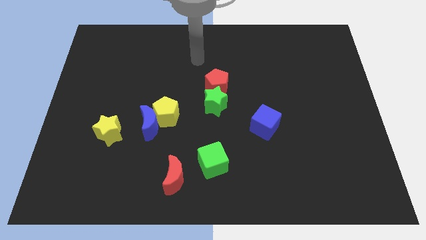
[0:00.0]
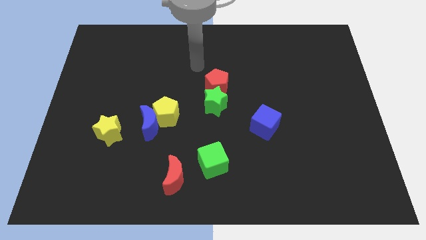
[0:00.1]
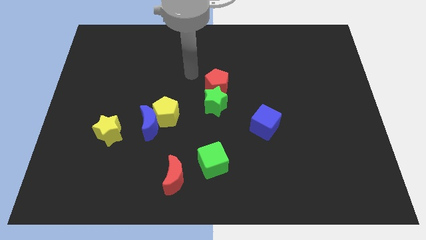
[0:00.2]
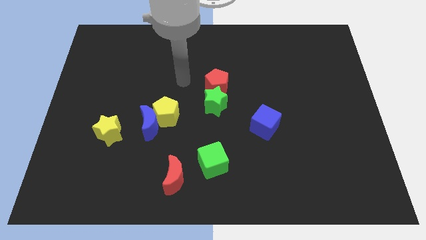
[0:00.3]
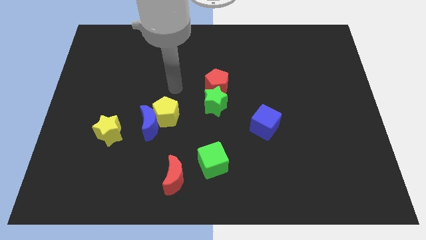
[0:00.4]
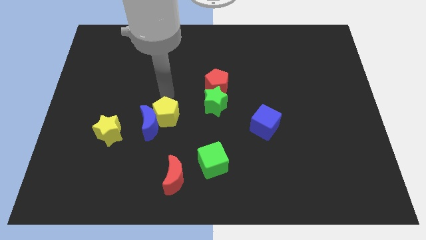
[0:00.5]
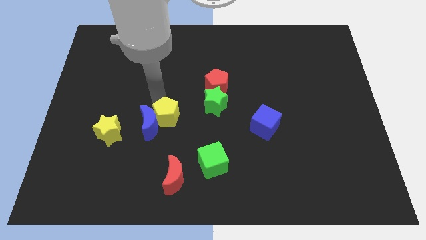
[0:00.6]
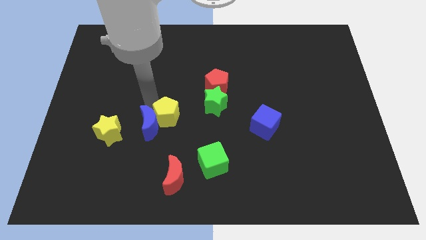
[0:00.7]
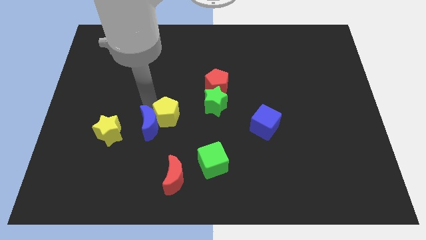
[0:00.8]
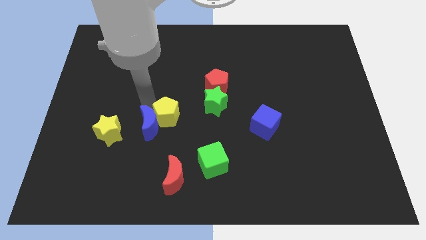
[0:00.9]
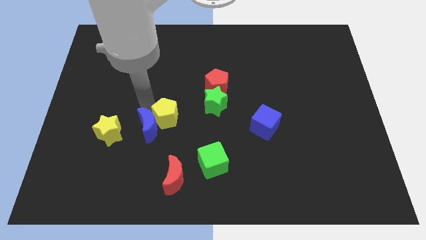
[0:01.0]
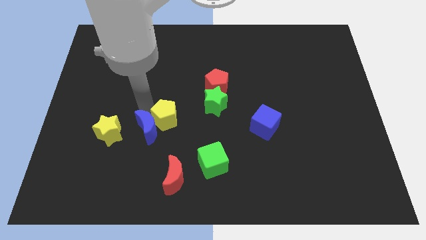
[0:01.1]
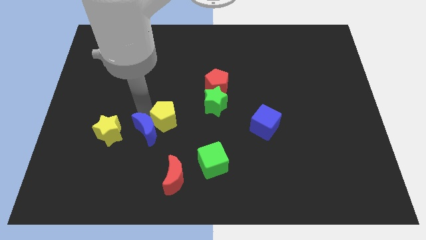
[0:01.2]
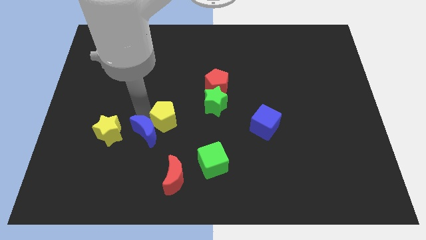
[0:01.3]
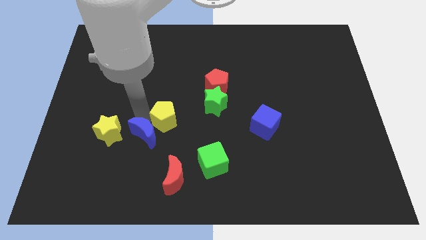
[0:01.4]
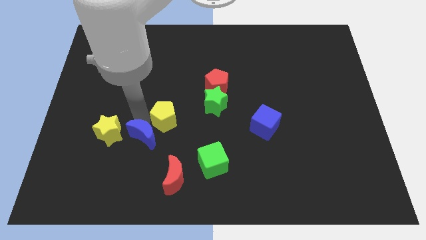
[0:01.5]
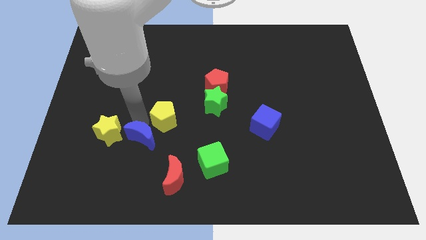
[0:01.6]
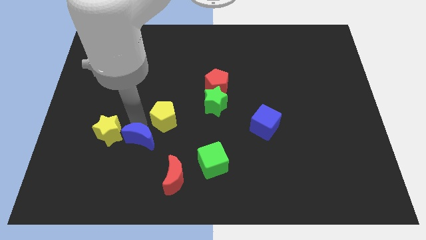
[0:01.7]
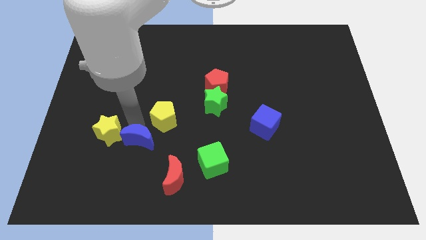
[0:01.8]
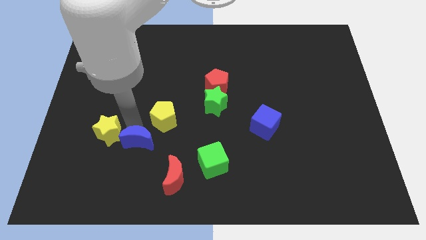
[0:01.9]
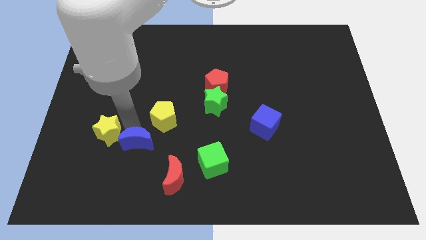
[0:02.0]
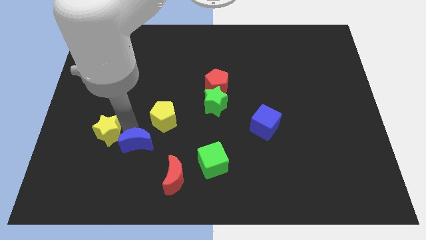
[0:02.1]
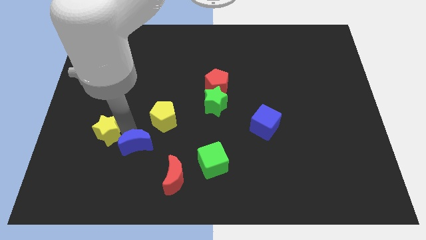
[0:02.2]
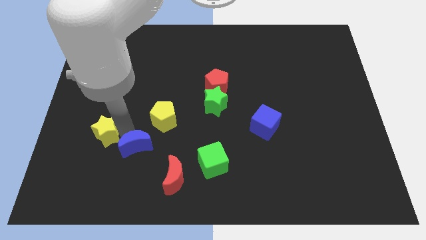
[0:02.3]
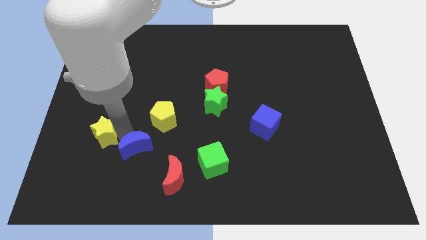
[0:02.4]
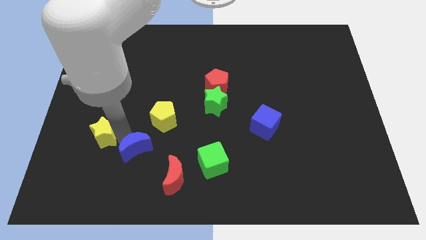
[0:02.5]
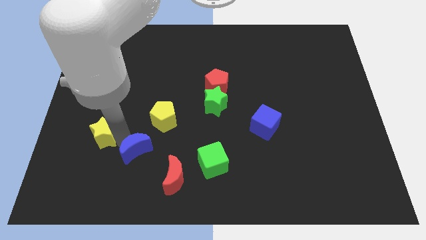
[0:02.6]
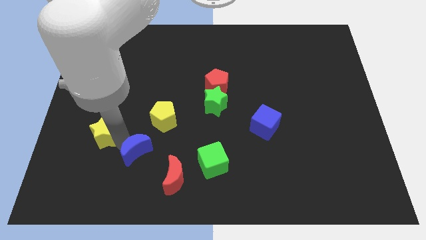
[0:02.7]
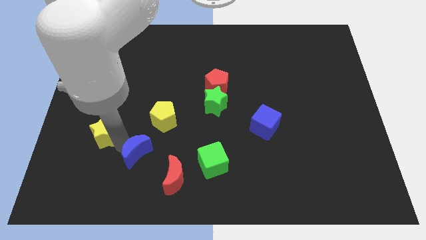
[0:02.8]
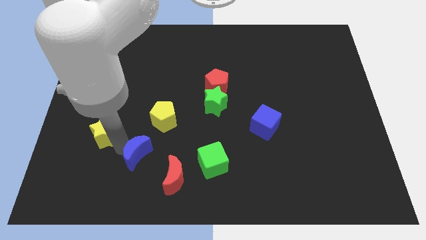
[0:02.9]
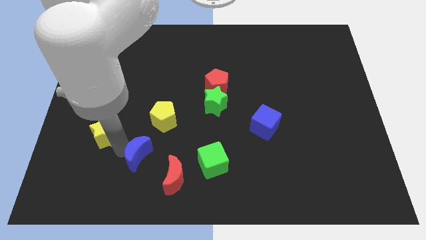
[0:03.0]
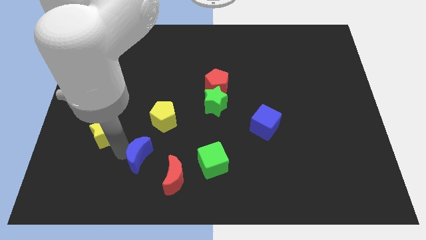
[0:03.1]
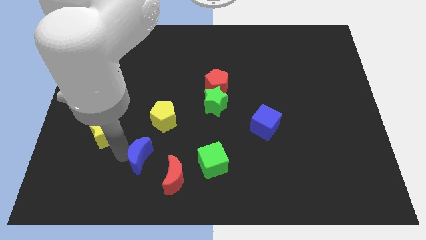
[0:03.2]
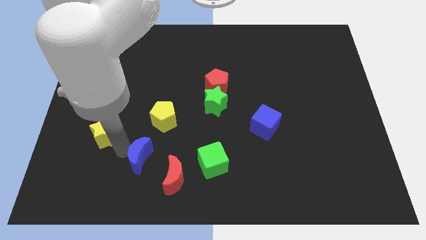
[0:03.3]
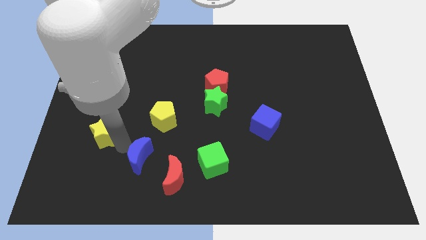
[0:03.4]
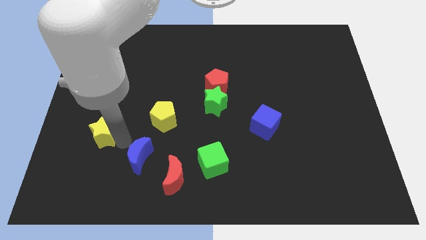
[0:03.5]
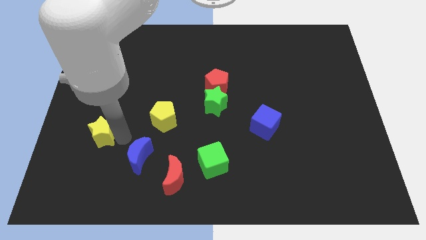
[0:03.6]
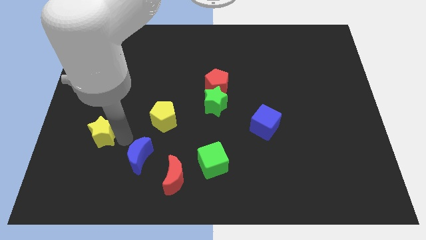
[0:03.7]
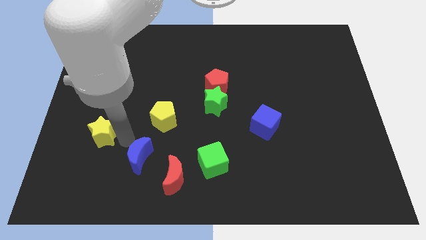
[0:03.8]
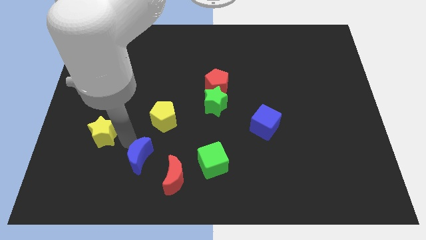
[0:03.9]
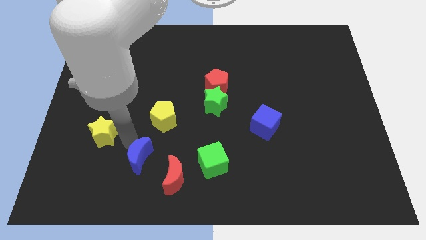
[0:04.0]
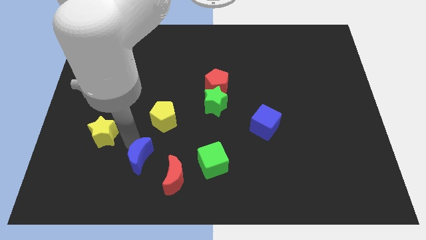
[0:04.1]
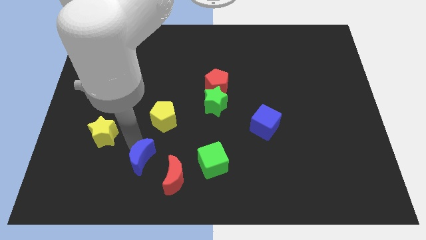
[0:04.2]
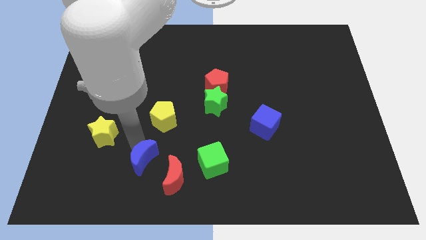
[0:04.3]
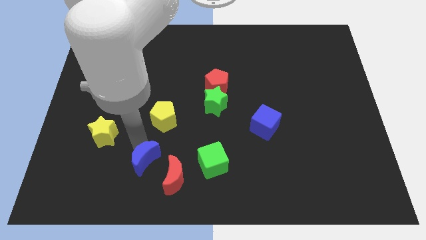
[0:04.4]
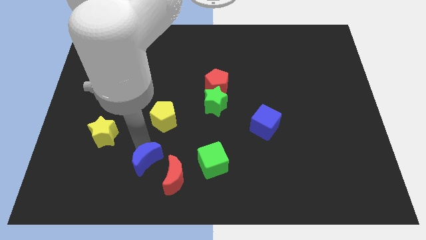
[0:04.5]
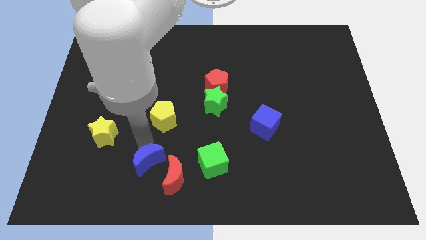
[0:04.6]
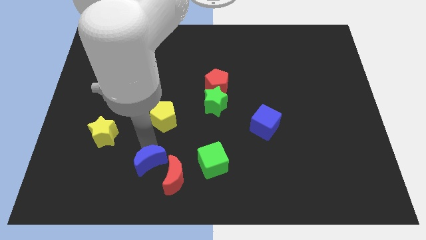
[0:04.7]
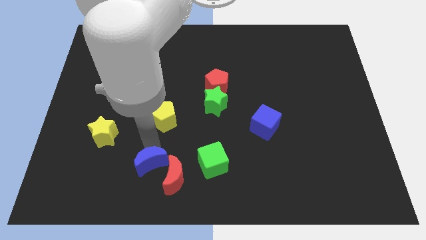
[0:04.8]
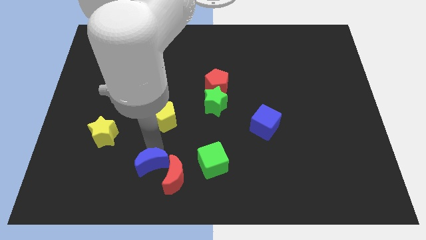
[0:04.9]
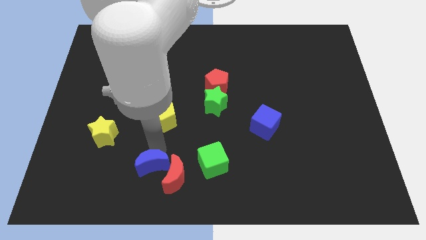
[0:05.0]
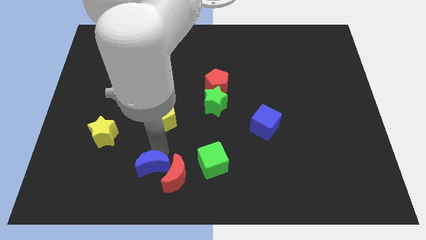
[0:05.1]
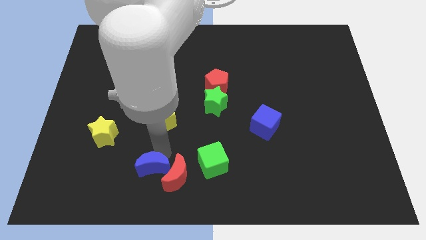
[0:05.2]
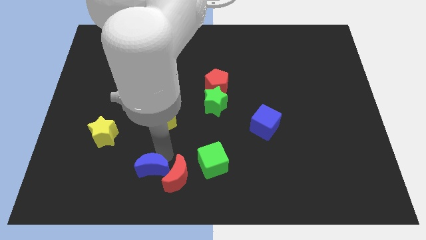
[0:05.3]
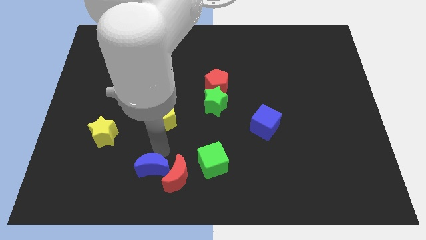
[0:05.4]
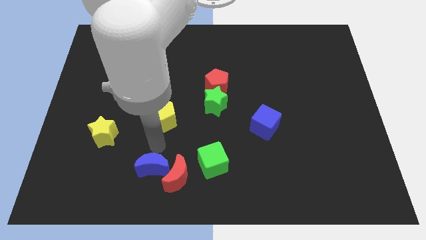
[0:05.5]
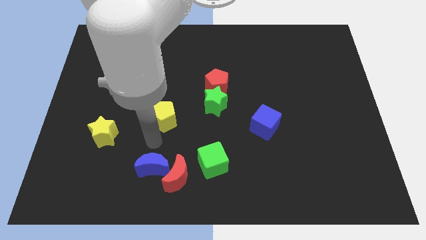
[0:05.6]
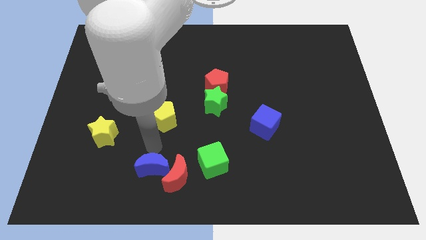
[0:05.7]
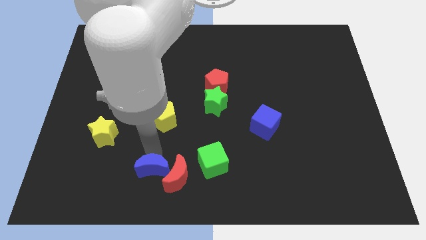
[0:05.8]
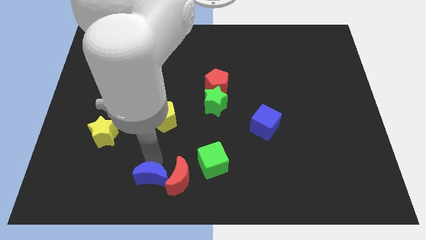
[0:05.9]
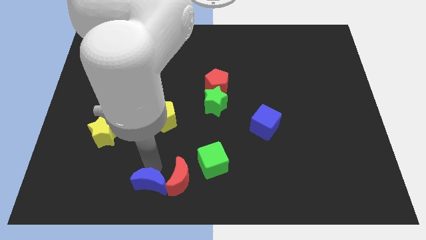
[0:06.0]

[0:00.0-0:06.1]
slide the blue moon to the bottom side

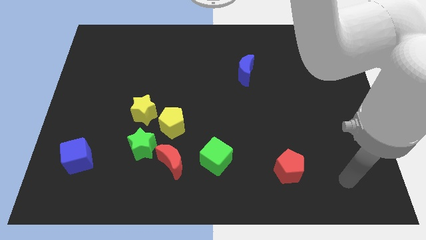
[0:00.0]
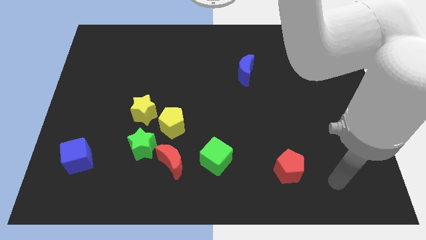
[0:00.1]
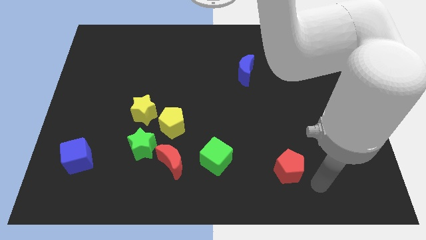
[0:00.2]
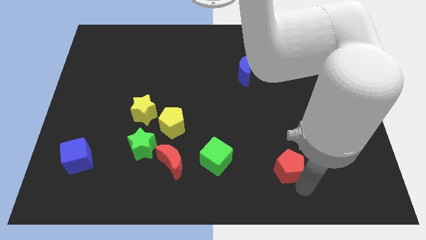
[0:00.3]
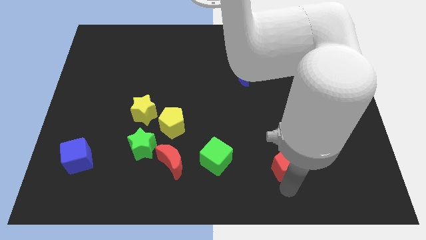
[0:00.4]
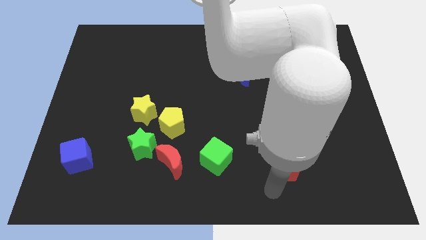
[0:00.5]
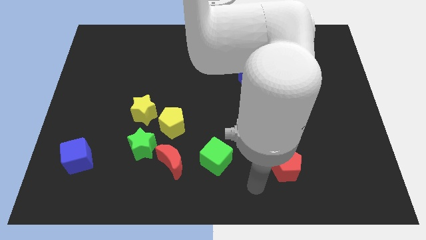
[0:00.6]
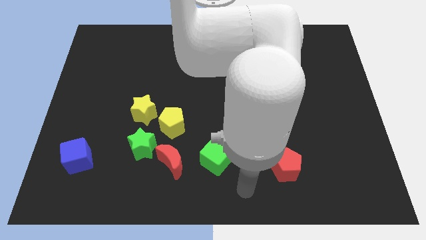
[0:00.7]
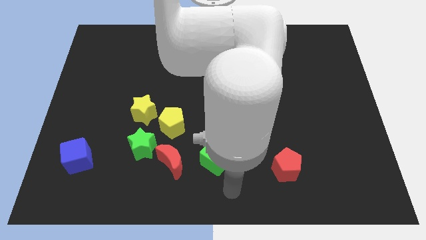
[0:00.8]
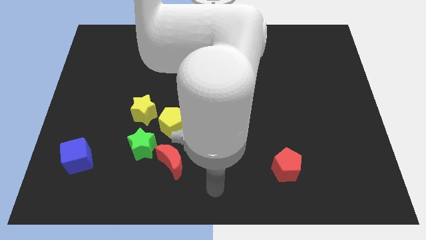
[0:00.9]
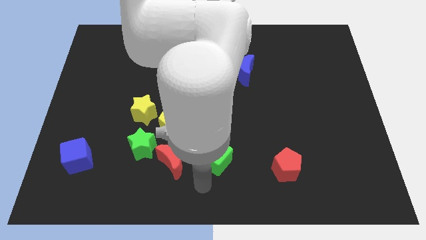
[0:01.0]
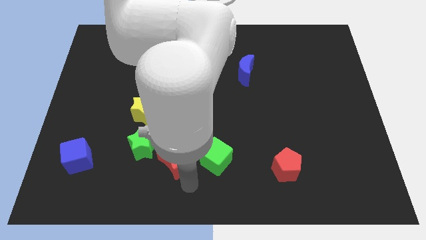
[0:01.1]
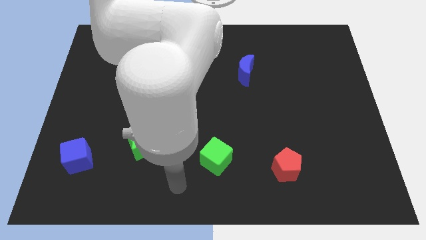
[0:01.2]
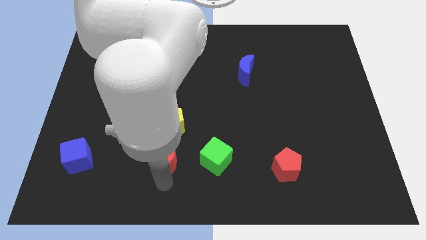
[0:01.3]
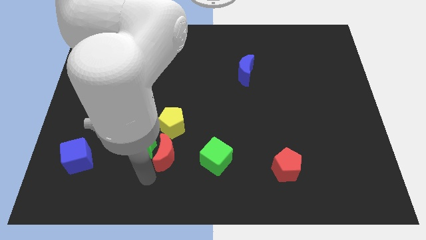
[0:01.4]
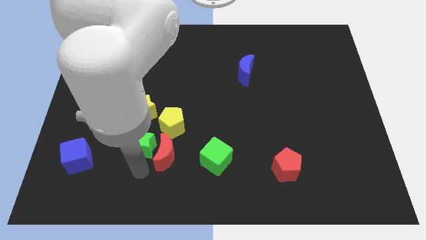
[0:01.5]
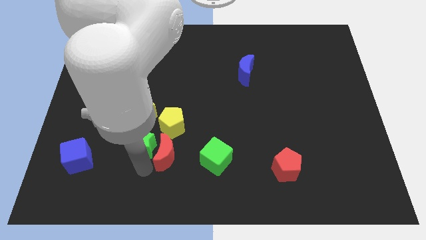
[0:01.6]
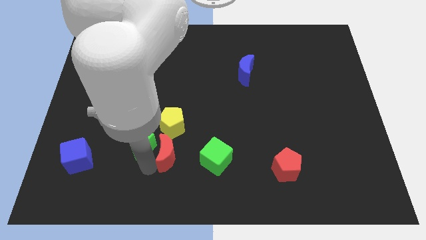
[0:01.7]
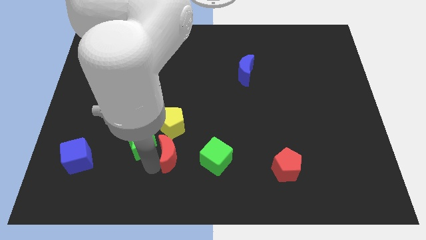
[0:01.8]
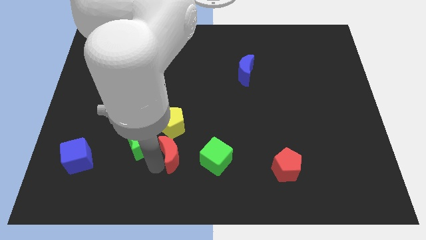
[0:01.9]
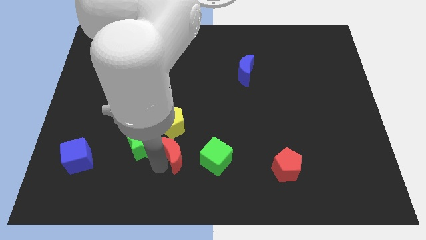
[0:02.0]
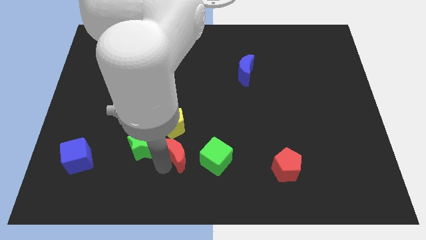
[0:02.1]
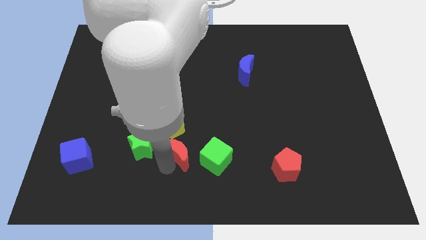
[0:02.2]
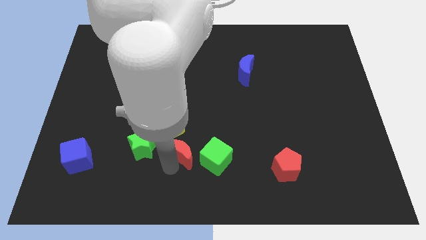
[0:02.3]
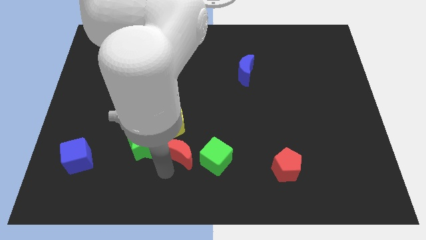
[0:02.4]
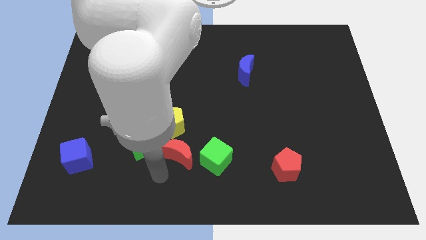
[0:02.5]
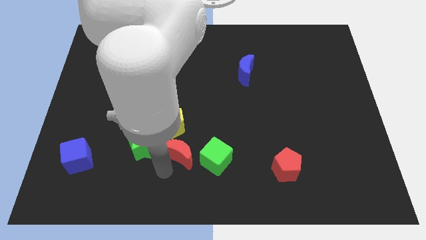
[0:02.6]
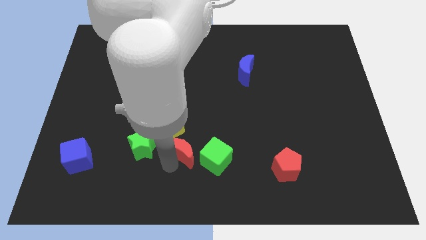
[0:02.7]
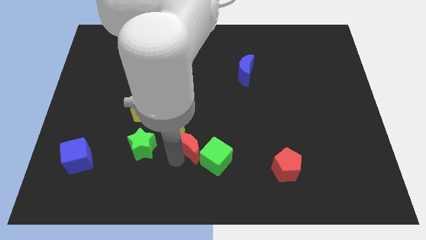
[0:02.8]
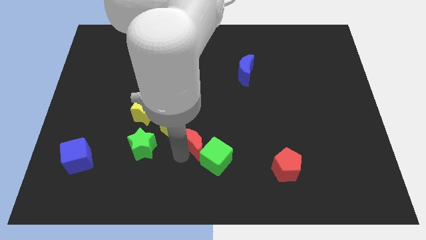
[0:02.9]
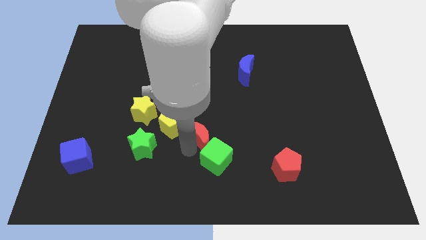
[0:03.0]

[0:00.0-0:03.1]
push the red moon to the middle
